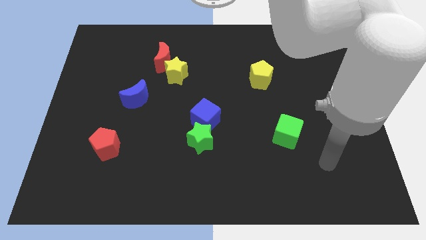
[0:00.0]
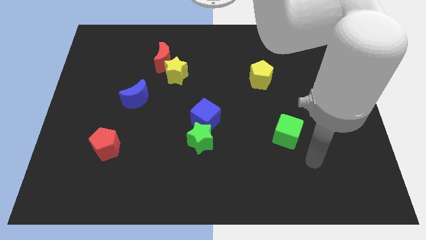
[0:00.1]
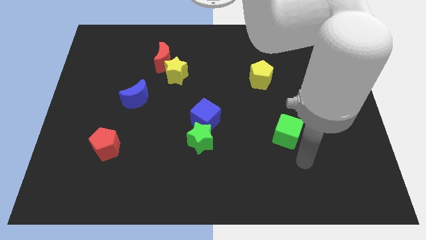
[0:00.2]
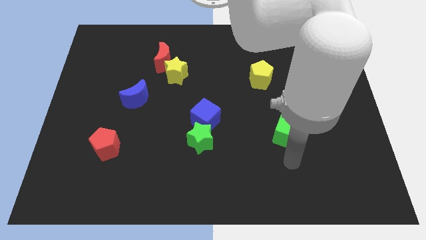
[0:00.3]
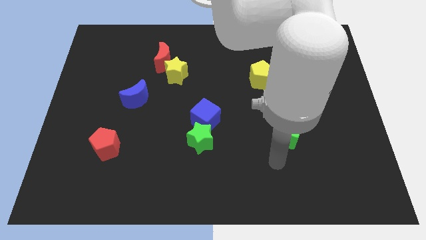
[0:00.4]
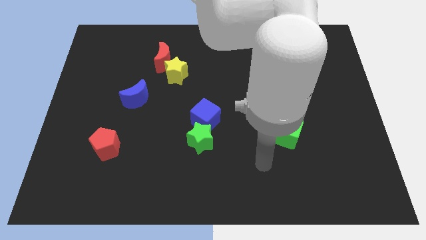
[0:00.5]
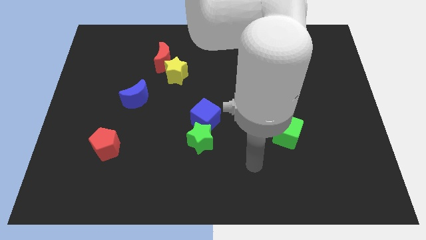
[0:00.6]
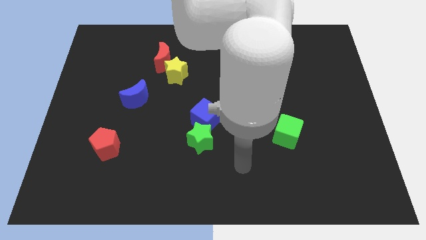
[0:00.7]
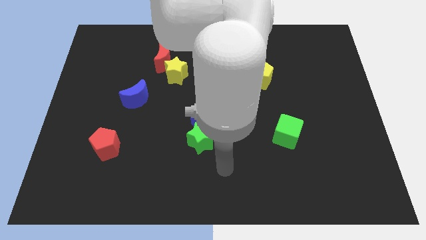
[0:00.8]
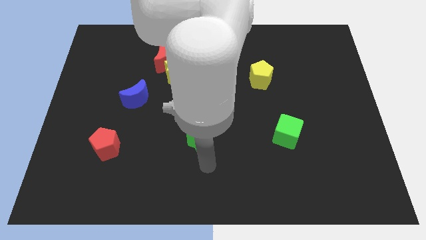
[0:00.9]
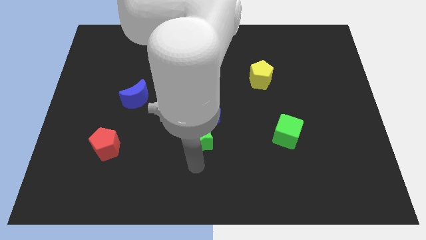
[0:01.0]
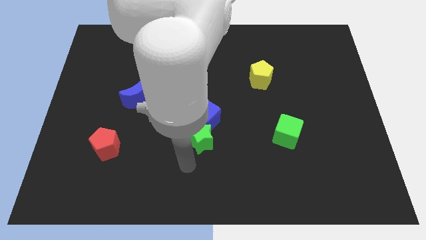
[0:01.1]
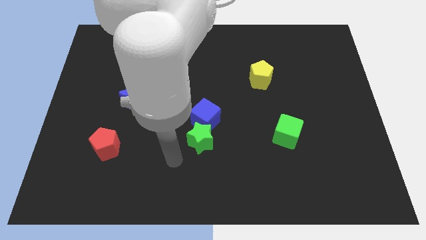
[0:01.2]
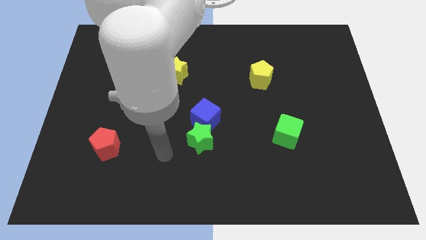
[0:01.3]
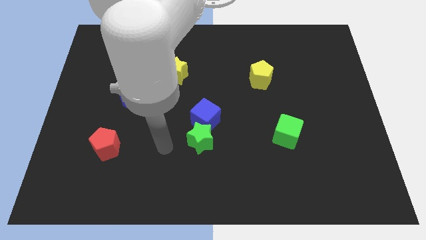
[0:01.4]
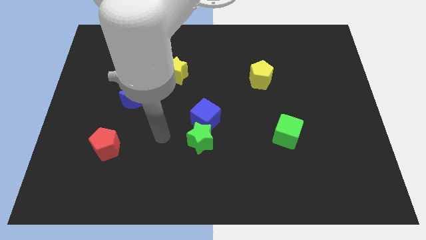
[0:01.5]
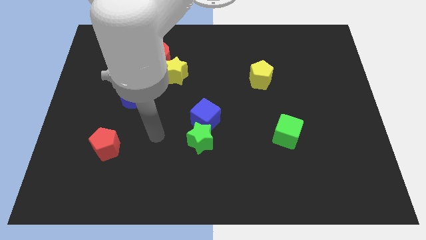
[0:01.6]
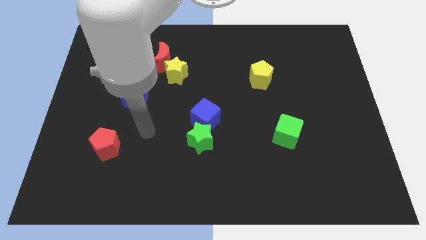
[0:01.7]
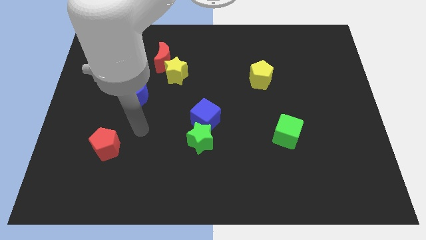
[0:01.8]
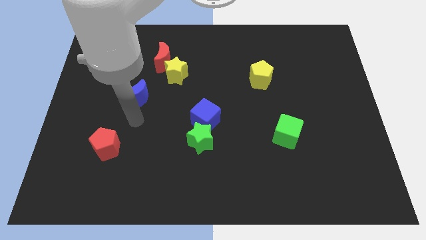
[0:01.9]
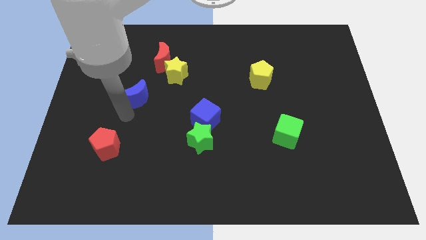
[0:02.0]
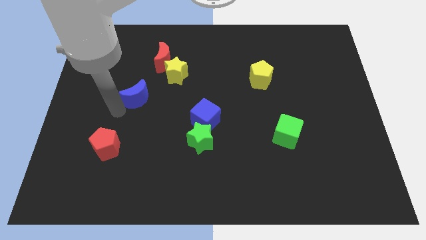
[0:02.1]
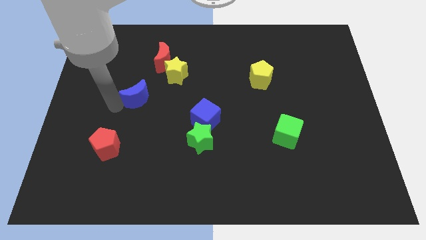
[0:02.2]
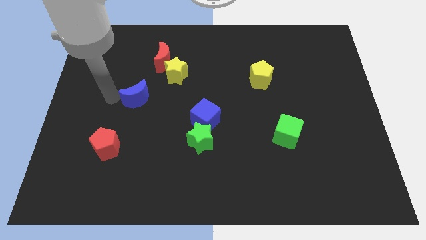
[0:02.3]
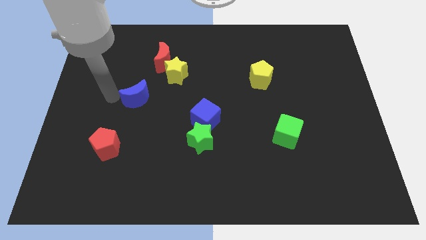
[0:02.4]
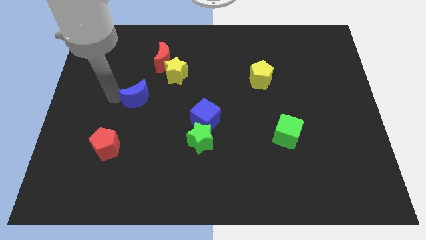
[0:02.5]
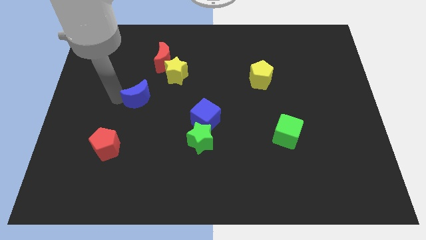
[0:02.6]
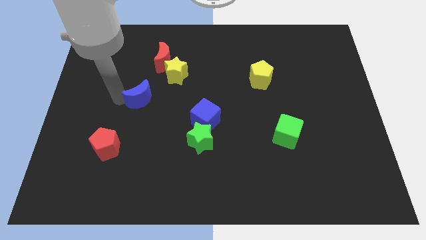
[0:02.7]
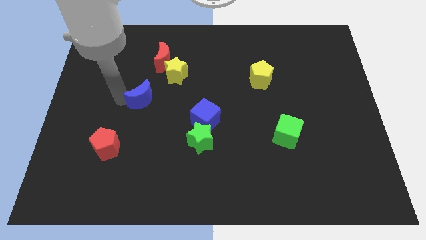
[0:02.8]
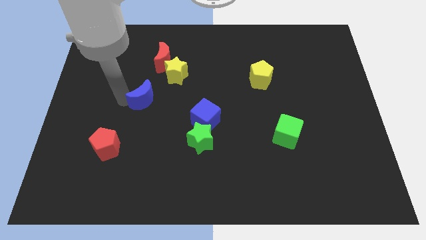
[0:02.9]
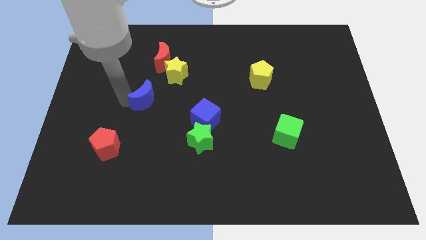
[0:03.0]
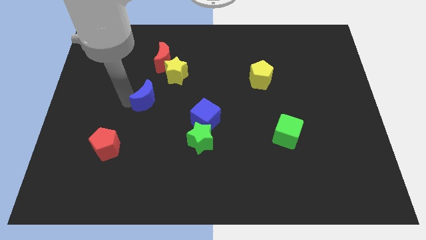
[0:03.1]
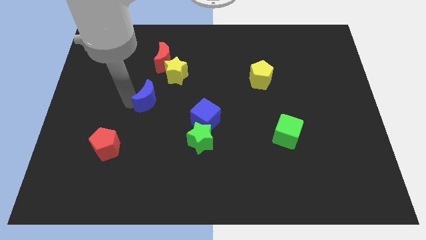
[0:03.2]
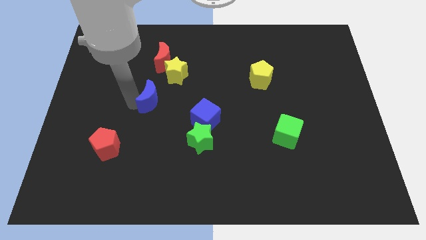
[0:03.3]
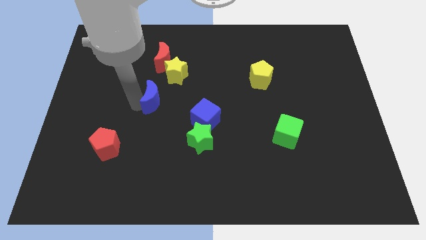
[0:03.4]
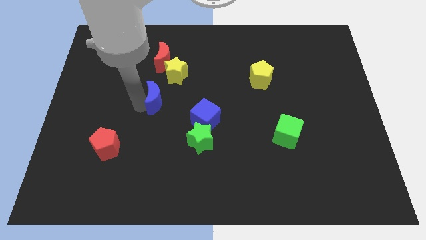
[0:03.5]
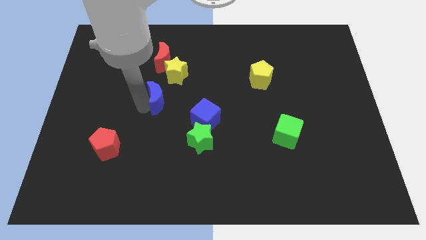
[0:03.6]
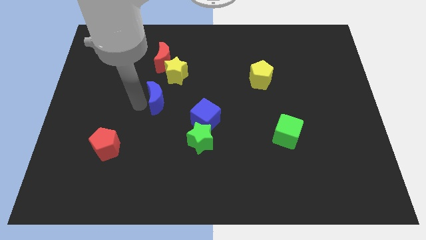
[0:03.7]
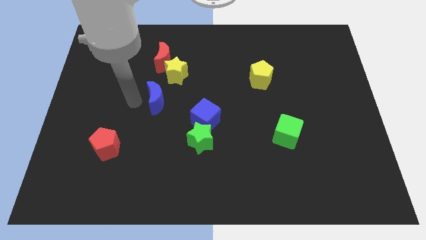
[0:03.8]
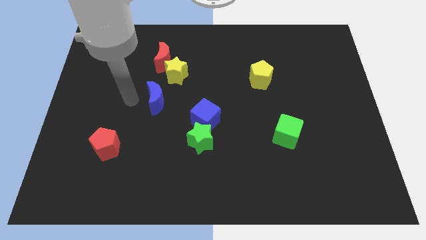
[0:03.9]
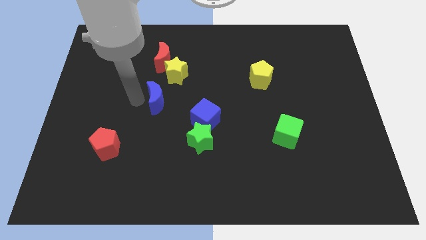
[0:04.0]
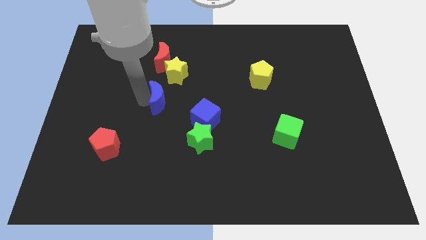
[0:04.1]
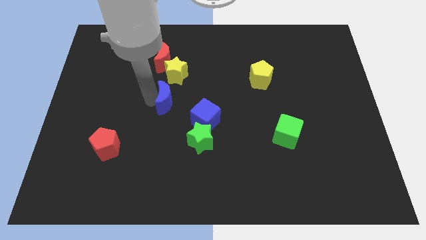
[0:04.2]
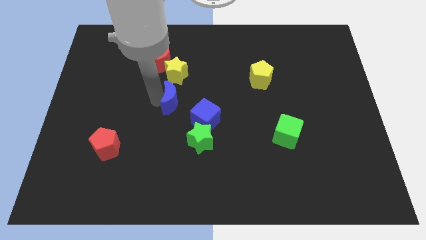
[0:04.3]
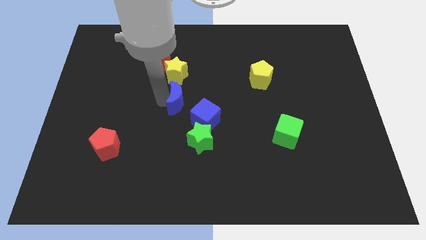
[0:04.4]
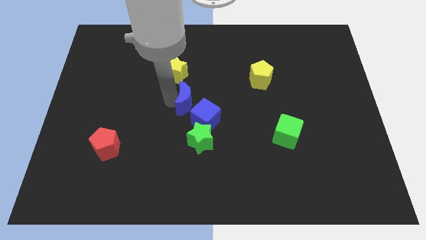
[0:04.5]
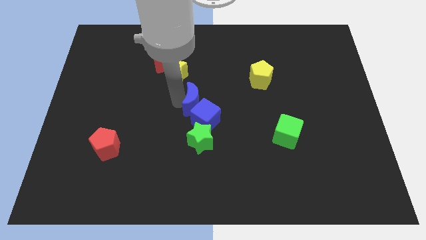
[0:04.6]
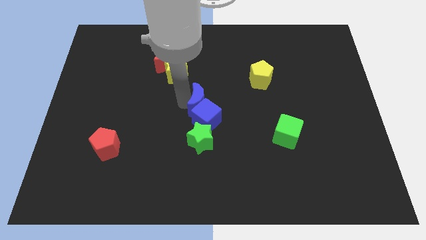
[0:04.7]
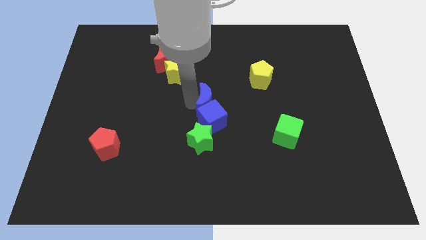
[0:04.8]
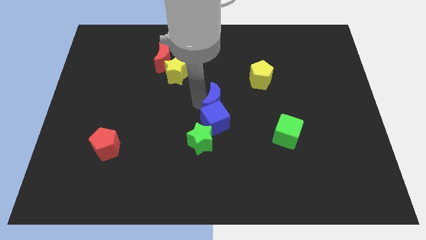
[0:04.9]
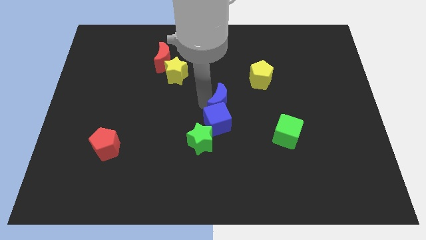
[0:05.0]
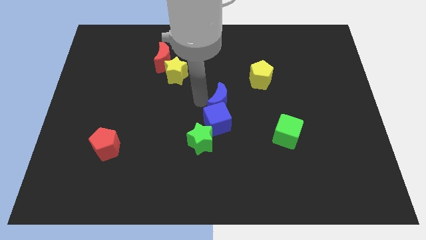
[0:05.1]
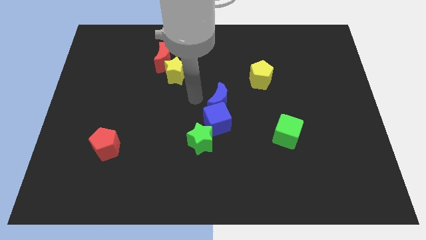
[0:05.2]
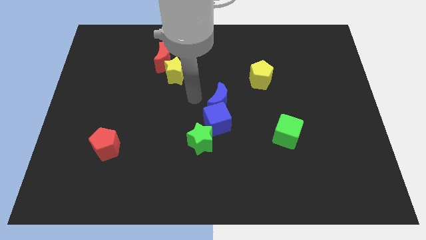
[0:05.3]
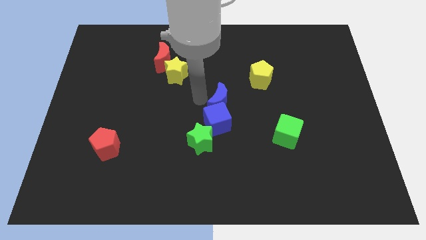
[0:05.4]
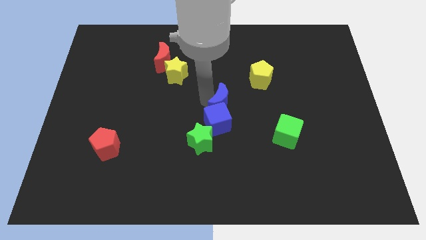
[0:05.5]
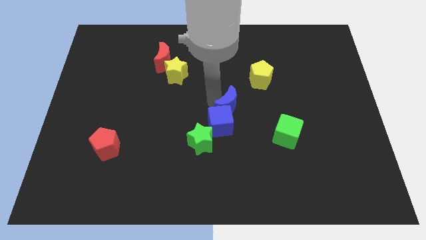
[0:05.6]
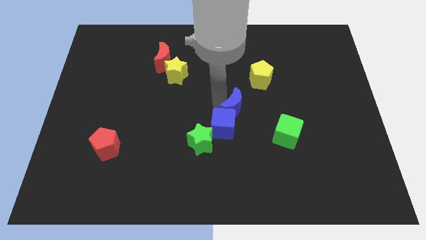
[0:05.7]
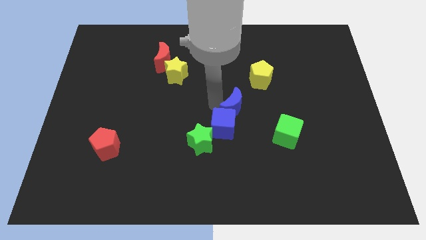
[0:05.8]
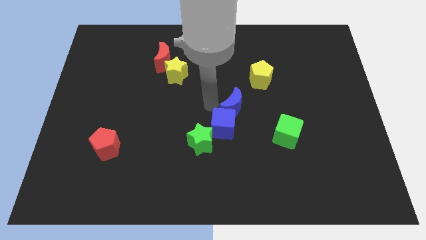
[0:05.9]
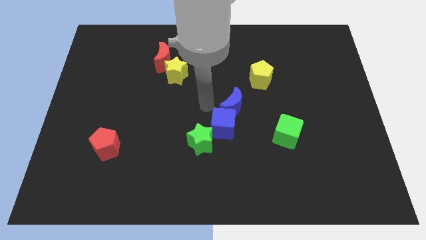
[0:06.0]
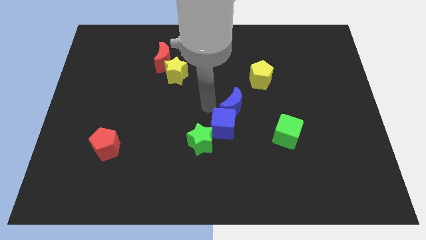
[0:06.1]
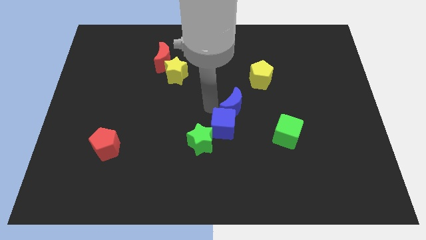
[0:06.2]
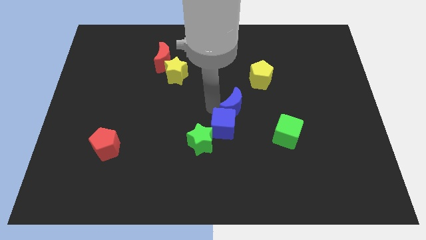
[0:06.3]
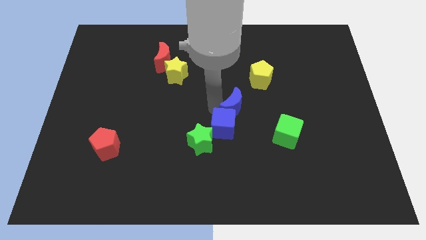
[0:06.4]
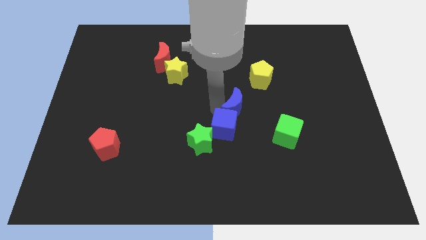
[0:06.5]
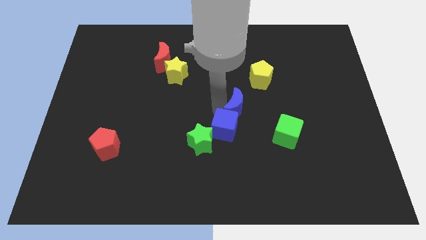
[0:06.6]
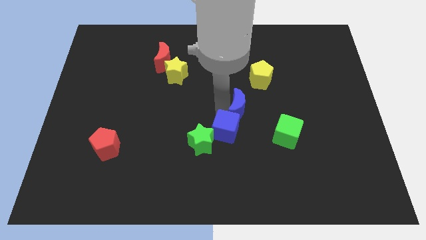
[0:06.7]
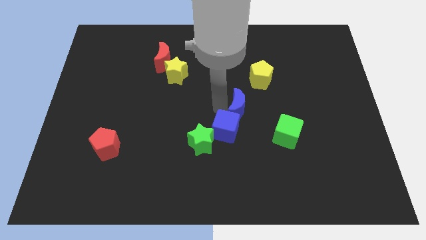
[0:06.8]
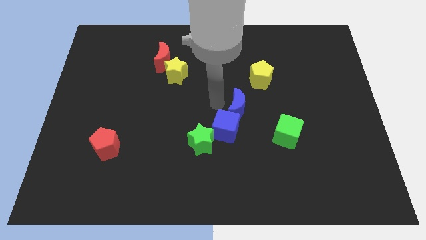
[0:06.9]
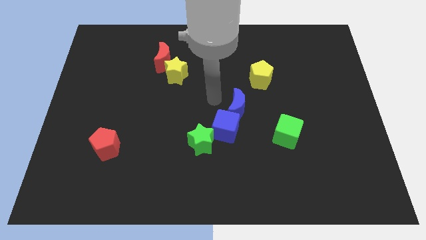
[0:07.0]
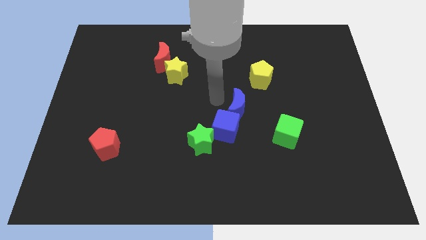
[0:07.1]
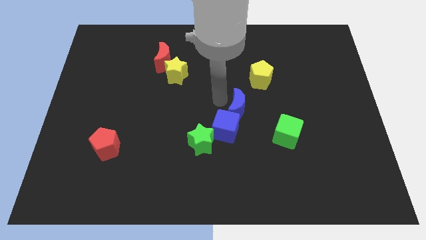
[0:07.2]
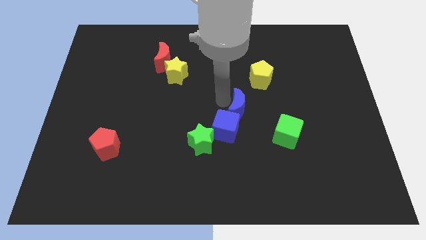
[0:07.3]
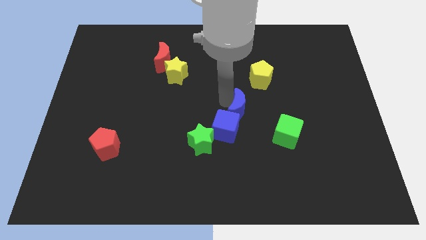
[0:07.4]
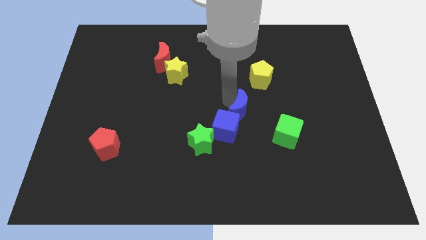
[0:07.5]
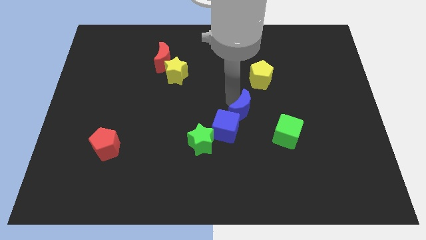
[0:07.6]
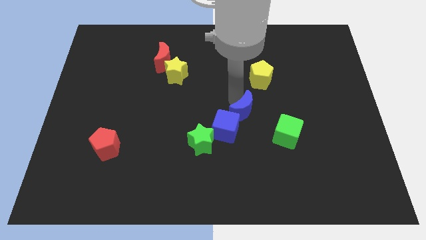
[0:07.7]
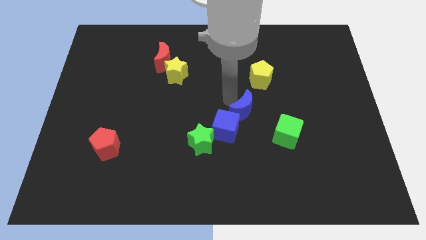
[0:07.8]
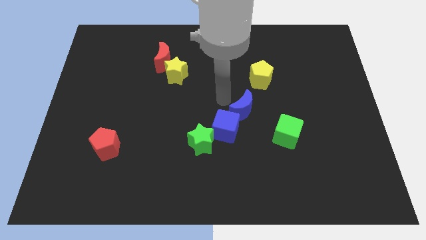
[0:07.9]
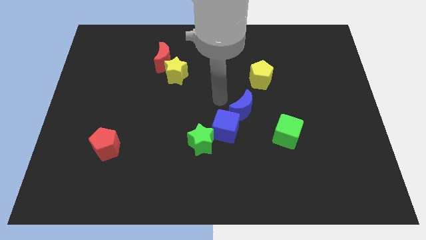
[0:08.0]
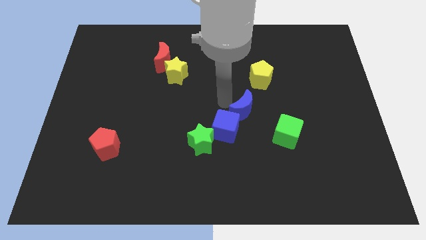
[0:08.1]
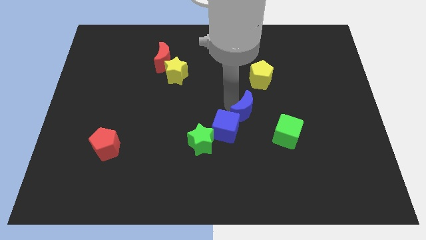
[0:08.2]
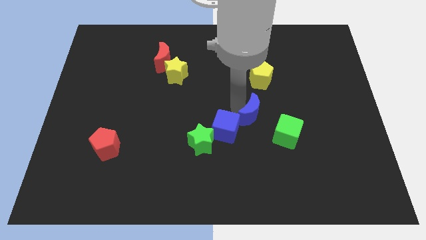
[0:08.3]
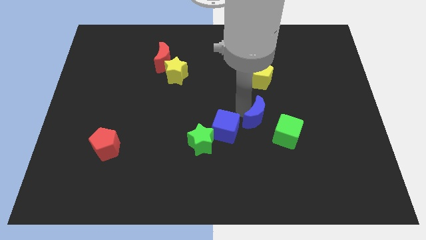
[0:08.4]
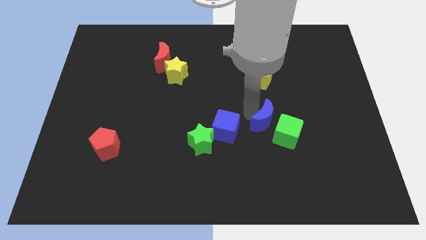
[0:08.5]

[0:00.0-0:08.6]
slide the blue moon to the green cube
